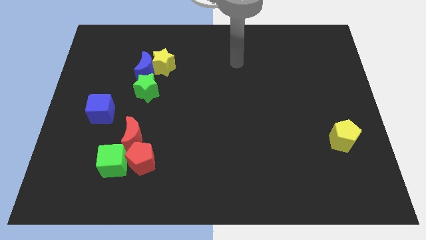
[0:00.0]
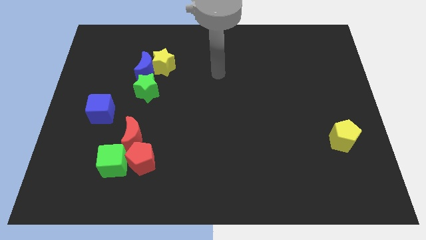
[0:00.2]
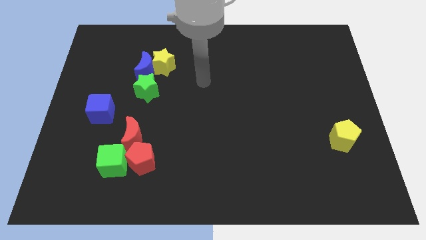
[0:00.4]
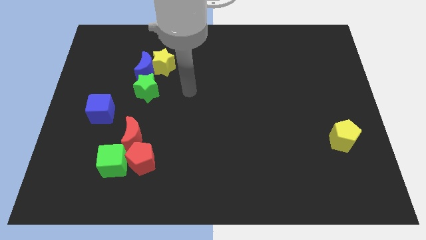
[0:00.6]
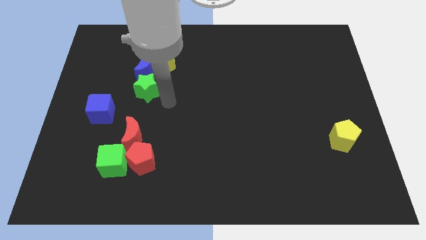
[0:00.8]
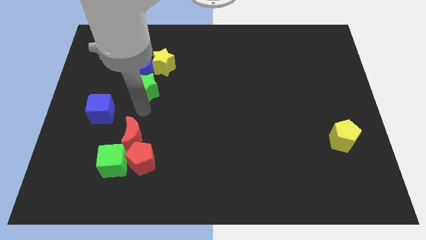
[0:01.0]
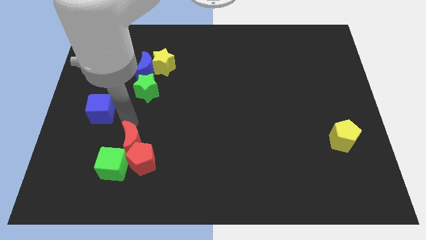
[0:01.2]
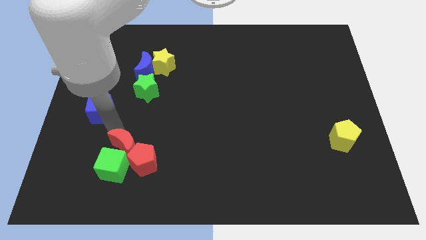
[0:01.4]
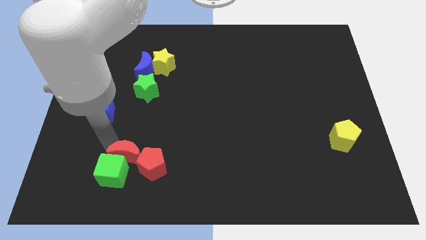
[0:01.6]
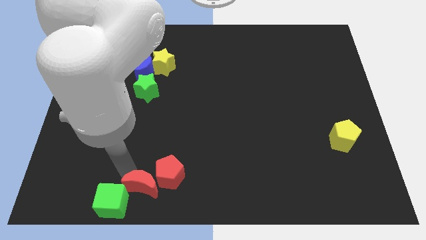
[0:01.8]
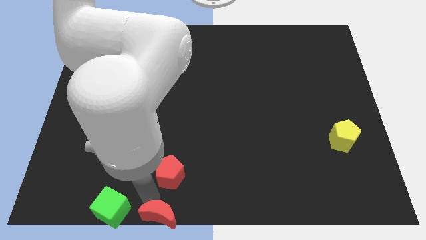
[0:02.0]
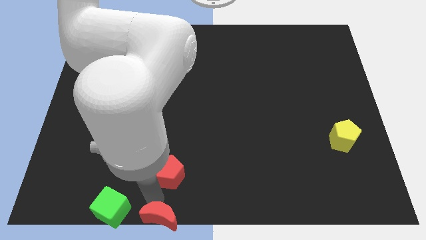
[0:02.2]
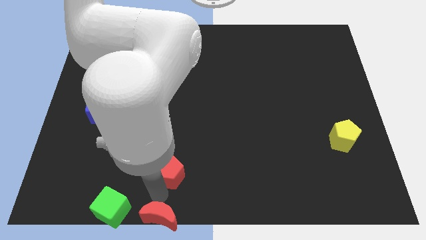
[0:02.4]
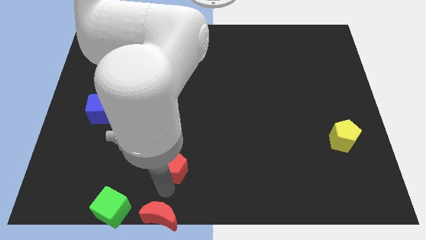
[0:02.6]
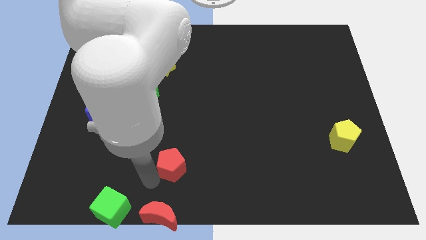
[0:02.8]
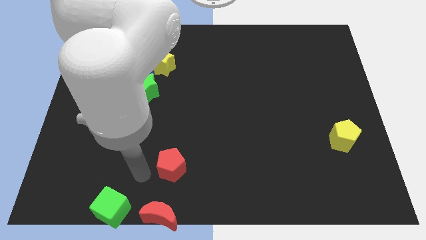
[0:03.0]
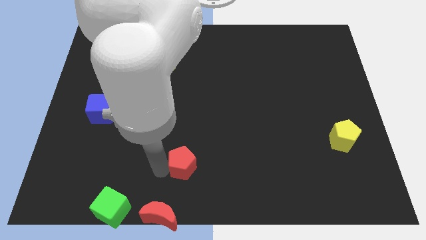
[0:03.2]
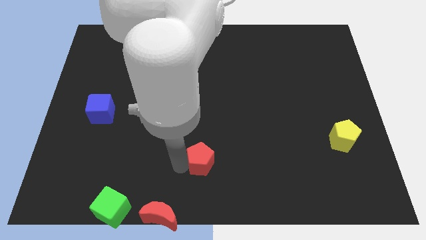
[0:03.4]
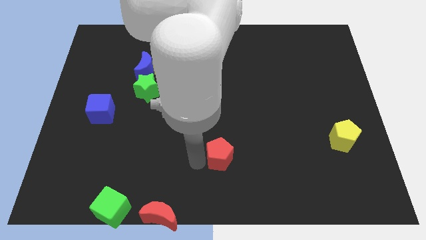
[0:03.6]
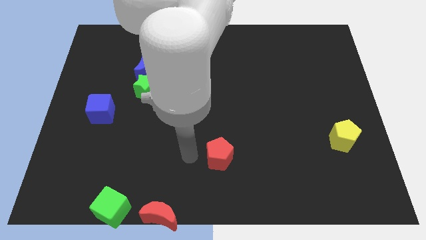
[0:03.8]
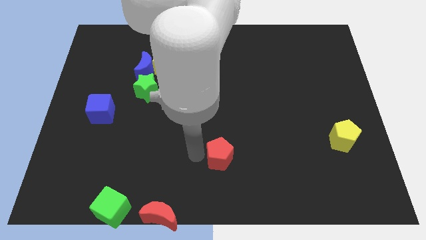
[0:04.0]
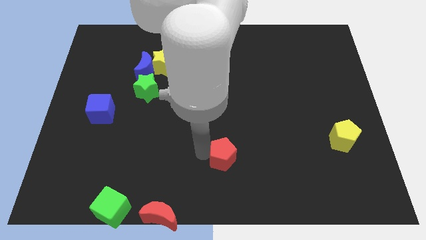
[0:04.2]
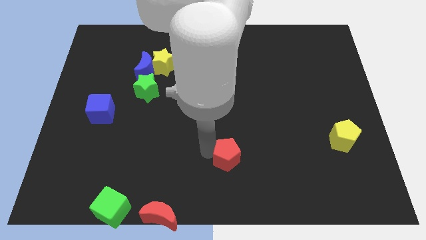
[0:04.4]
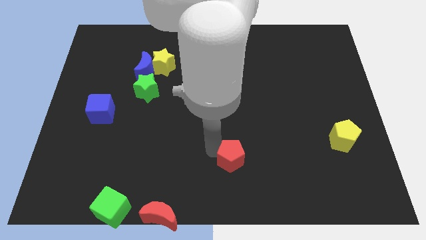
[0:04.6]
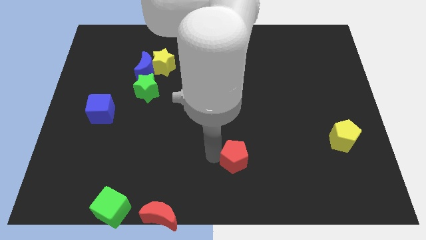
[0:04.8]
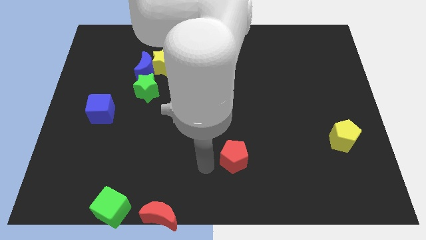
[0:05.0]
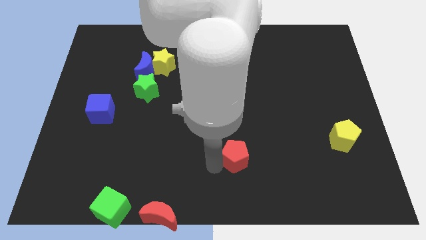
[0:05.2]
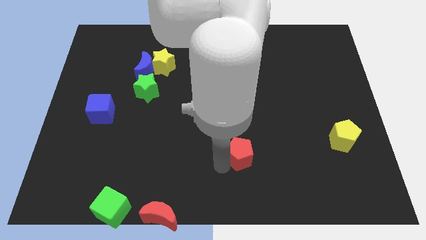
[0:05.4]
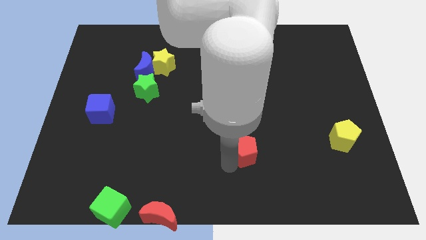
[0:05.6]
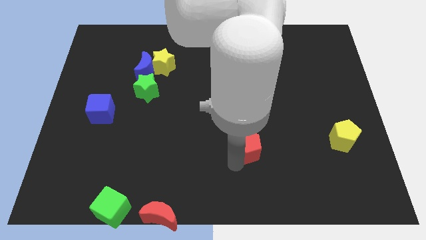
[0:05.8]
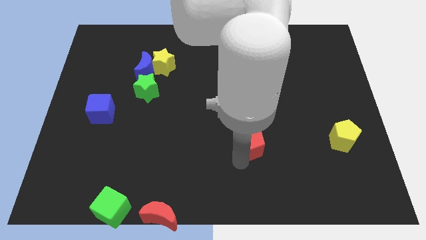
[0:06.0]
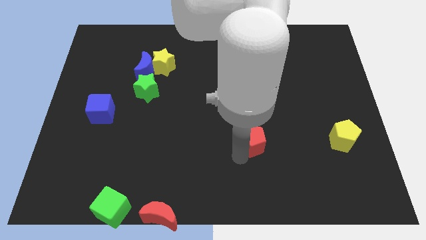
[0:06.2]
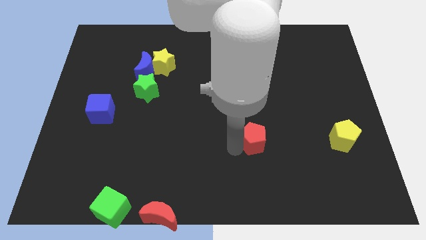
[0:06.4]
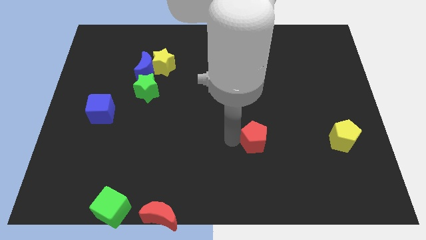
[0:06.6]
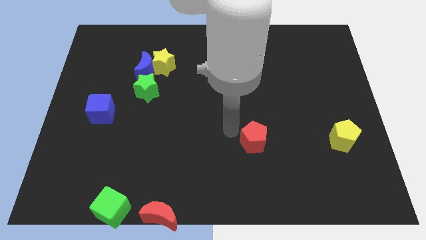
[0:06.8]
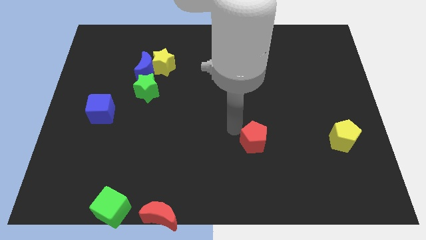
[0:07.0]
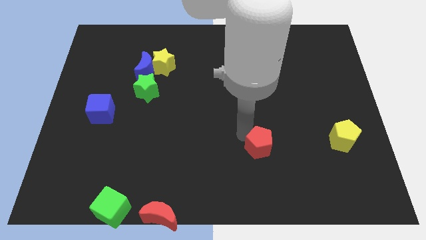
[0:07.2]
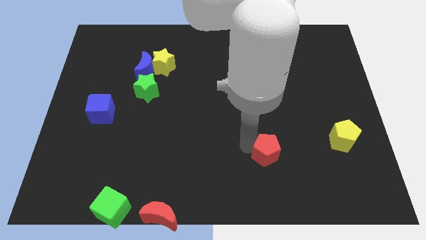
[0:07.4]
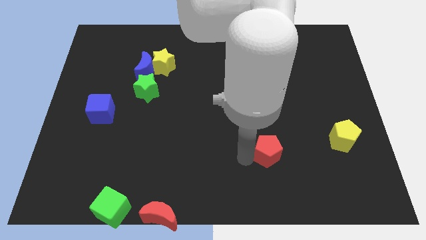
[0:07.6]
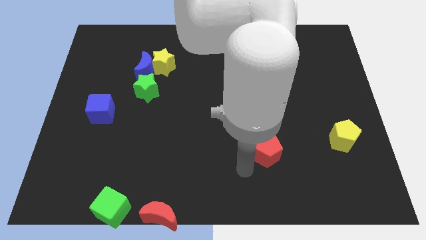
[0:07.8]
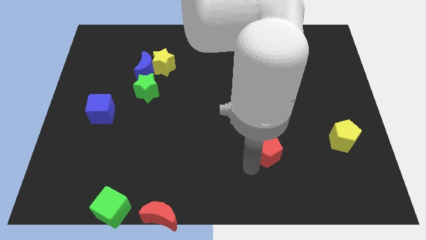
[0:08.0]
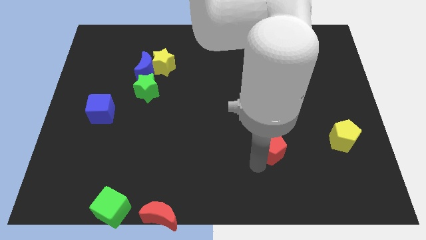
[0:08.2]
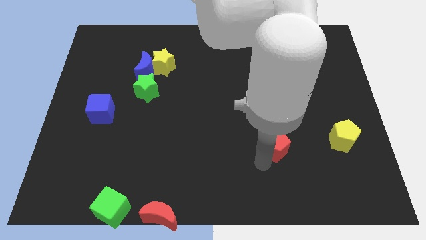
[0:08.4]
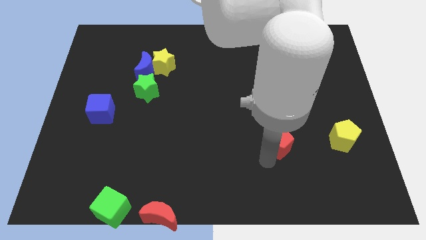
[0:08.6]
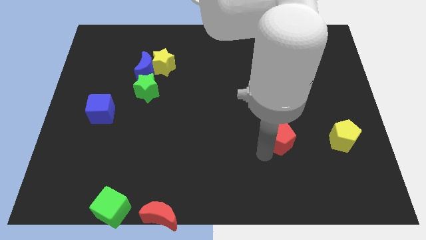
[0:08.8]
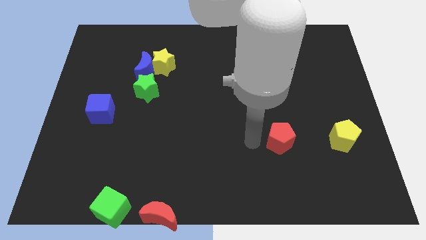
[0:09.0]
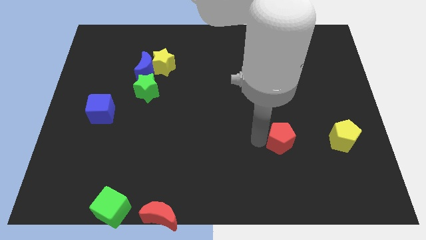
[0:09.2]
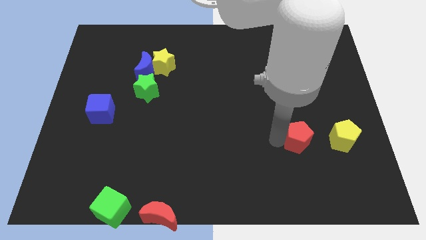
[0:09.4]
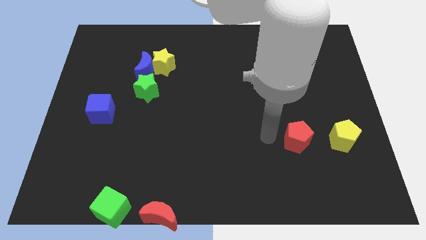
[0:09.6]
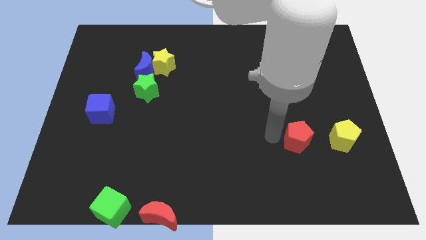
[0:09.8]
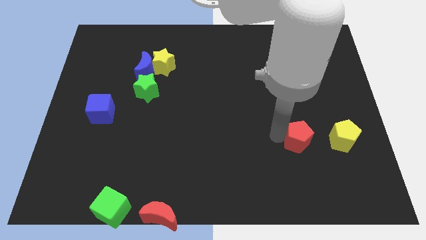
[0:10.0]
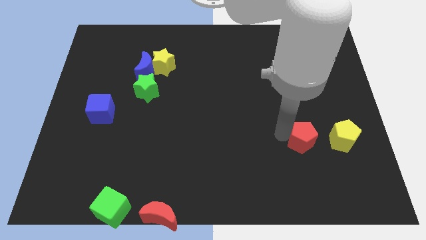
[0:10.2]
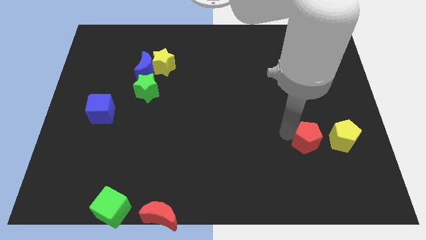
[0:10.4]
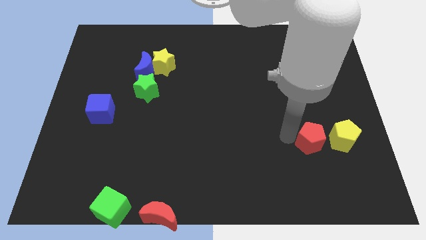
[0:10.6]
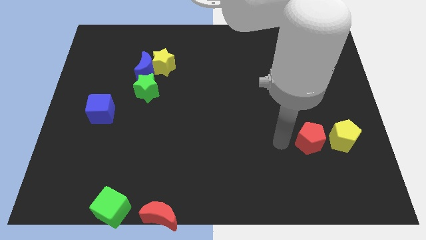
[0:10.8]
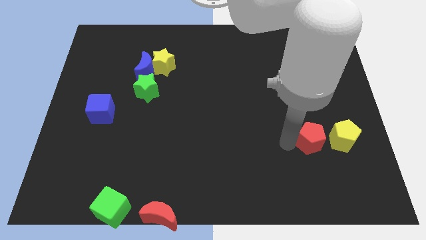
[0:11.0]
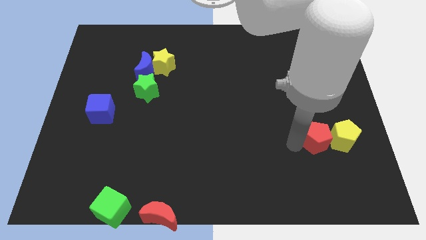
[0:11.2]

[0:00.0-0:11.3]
slide the red pentagon next to the yellow pentagon

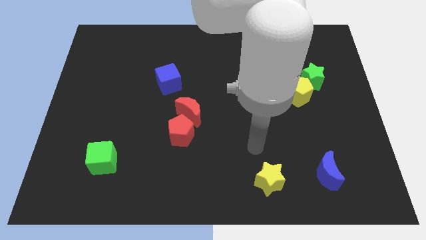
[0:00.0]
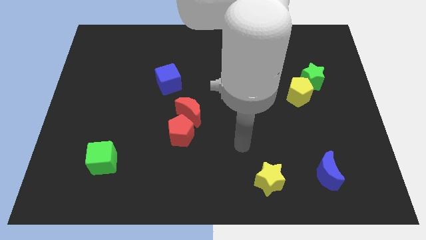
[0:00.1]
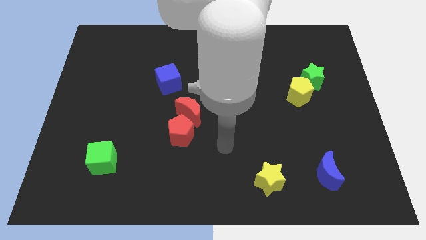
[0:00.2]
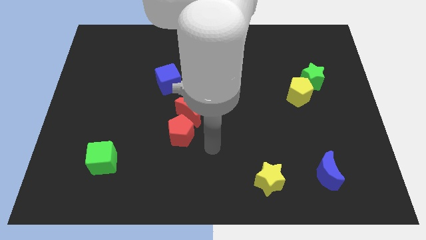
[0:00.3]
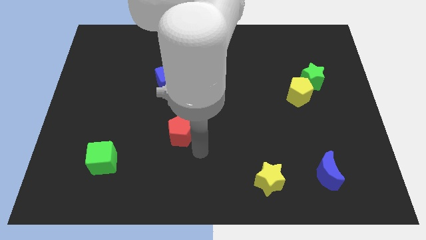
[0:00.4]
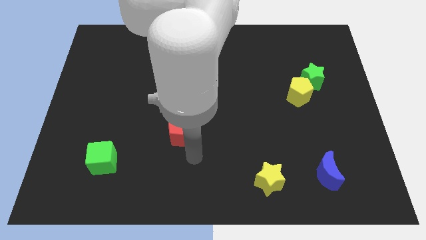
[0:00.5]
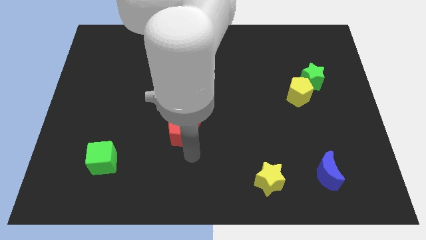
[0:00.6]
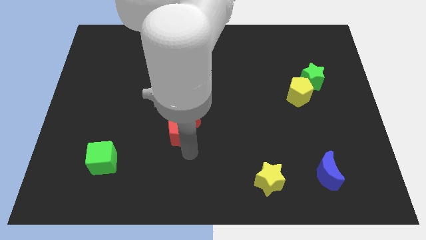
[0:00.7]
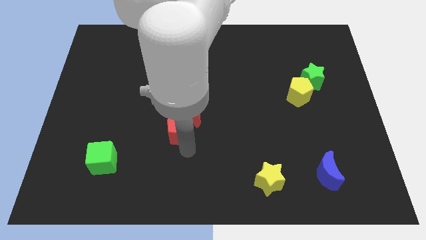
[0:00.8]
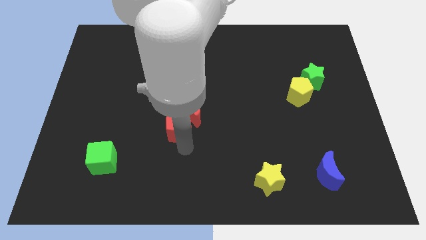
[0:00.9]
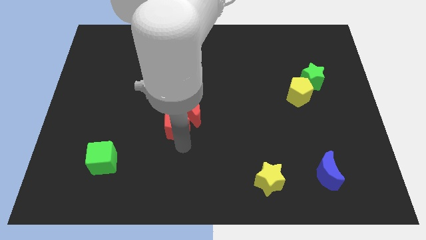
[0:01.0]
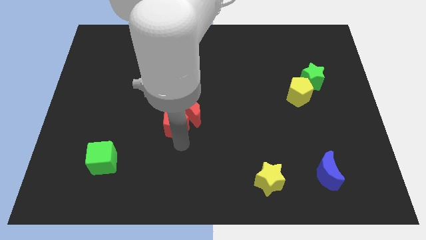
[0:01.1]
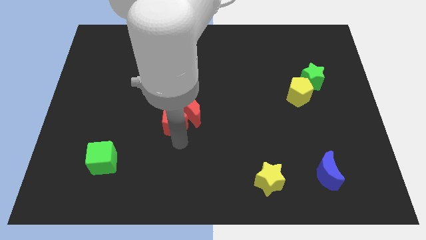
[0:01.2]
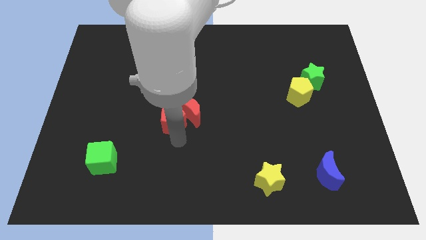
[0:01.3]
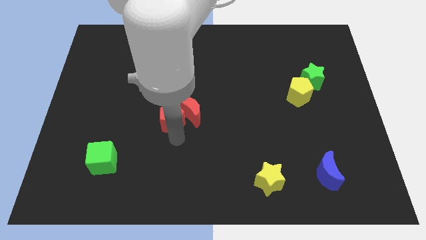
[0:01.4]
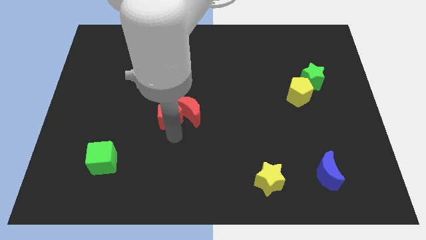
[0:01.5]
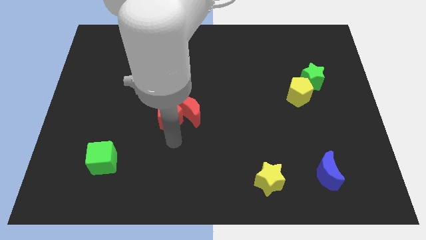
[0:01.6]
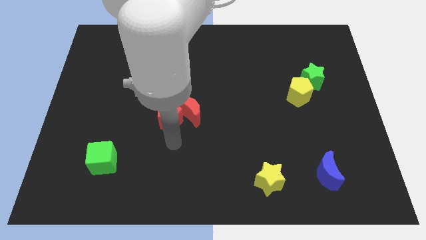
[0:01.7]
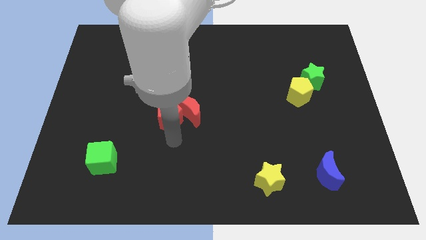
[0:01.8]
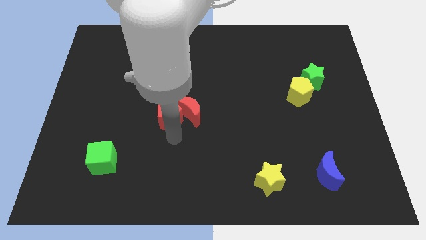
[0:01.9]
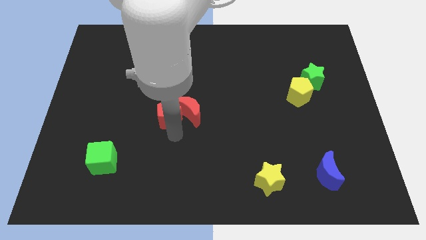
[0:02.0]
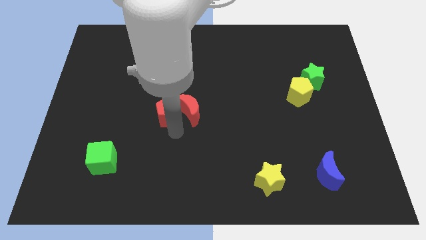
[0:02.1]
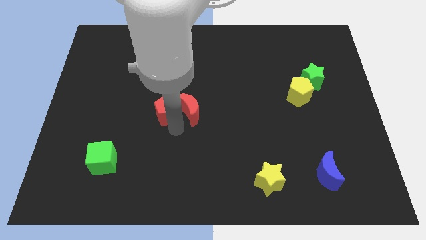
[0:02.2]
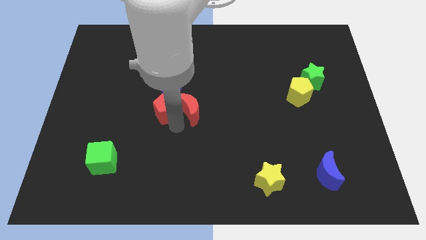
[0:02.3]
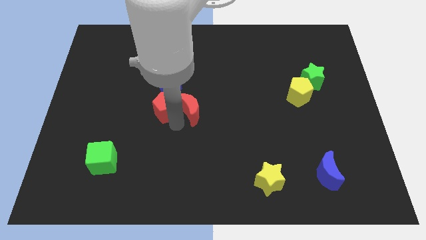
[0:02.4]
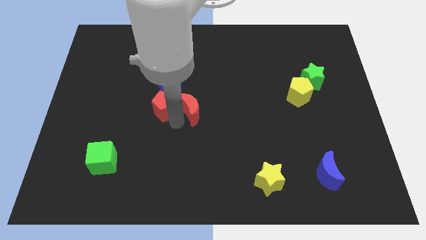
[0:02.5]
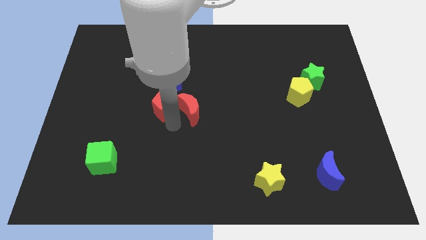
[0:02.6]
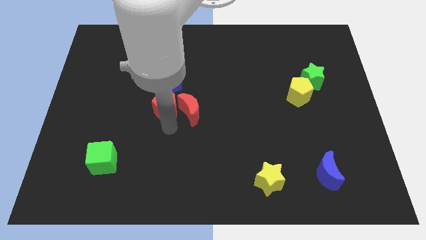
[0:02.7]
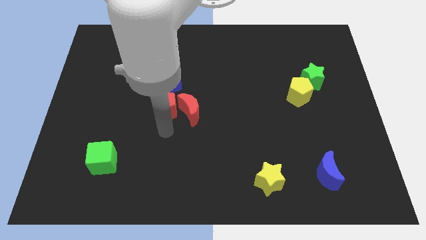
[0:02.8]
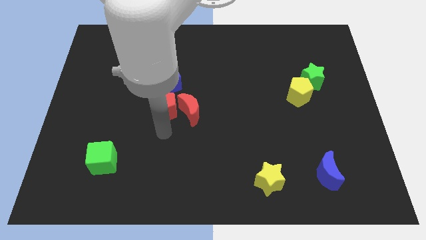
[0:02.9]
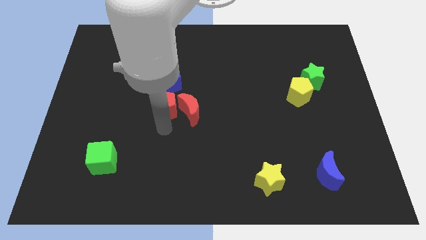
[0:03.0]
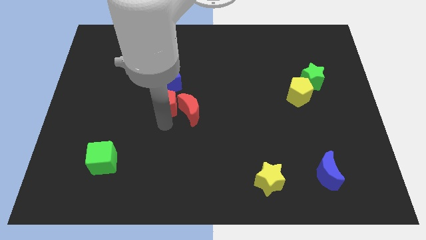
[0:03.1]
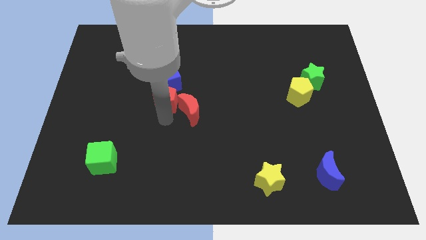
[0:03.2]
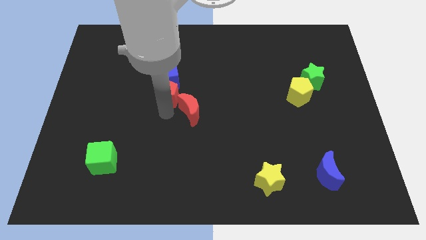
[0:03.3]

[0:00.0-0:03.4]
move the red pentagon close to the blue cube
